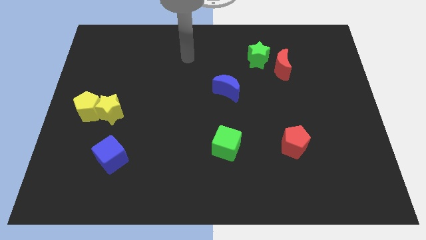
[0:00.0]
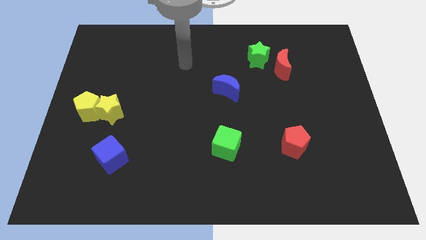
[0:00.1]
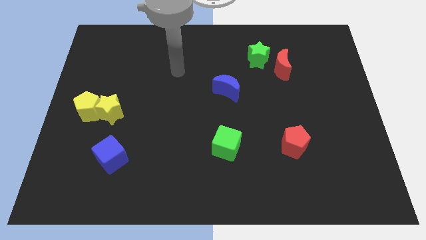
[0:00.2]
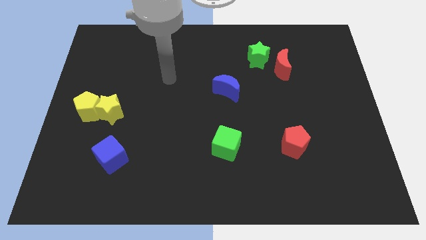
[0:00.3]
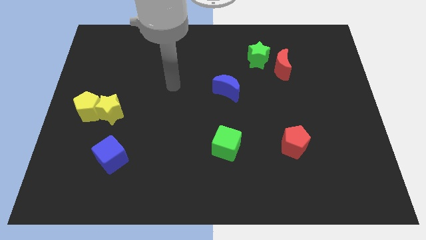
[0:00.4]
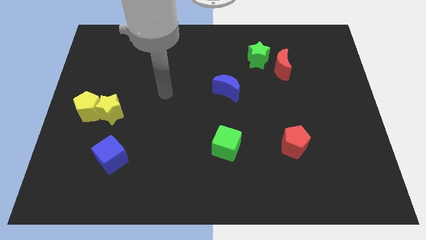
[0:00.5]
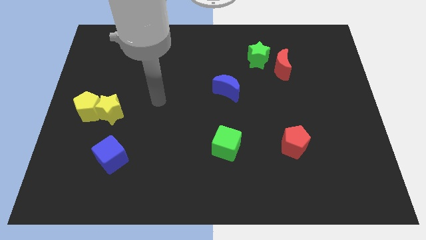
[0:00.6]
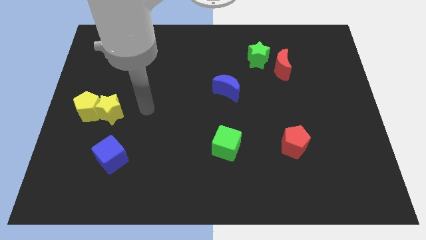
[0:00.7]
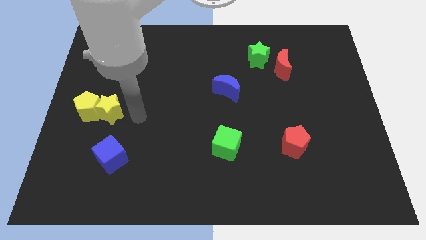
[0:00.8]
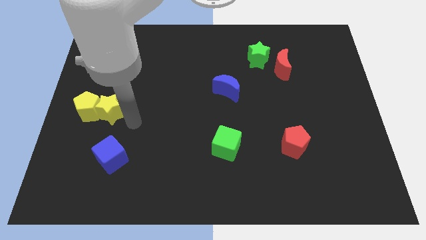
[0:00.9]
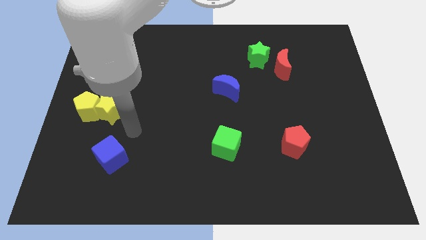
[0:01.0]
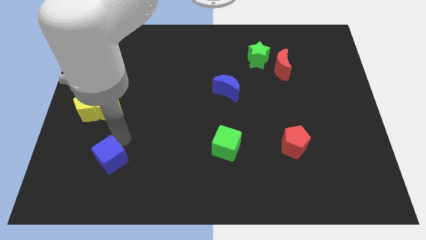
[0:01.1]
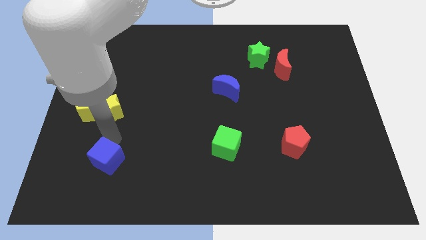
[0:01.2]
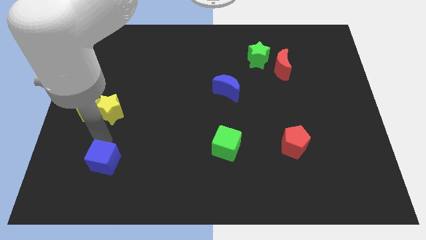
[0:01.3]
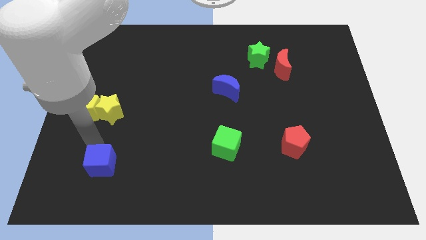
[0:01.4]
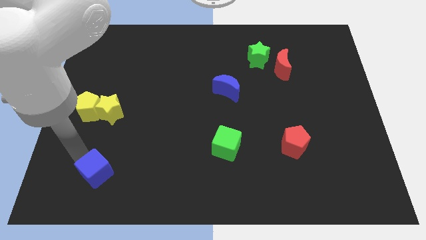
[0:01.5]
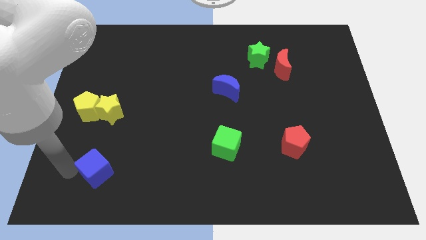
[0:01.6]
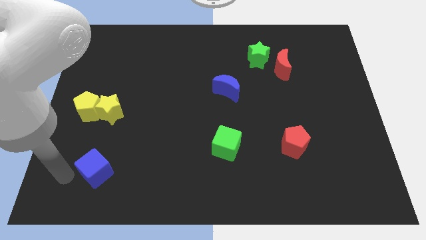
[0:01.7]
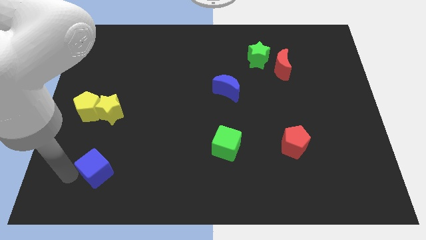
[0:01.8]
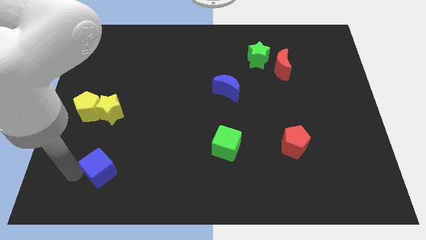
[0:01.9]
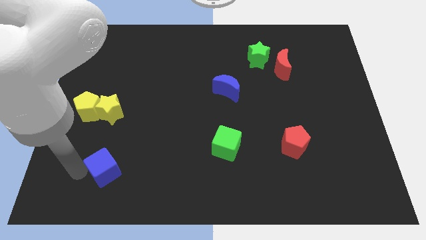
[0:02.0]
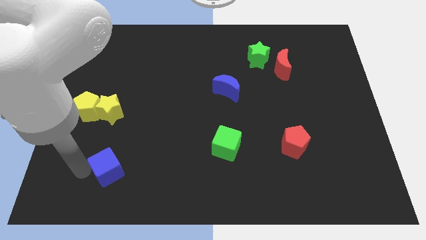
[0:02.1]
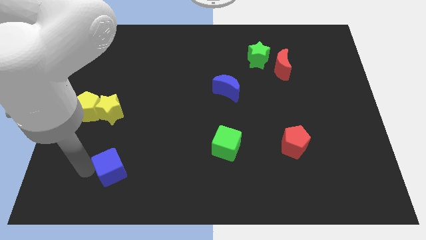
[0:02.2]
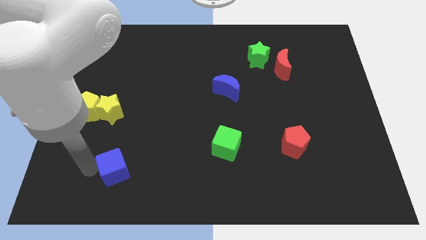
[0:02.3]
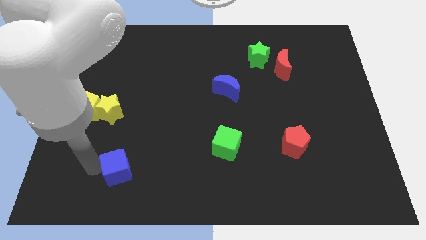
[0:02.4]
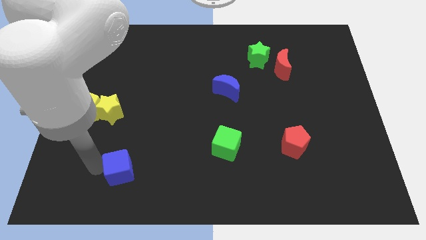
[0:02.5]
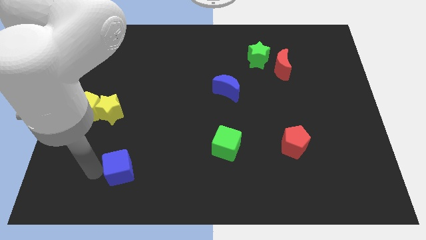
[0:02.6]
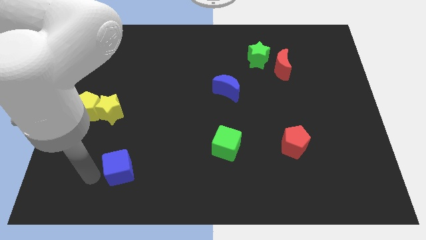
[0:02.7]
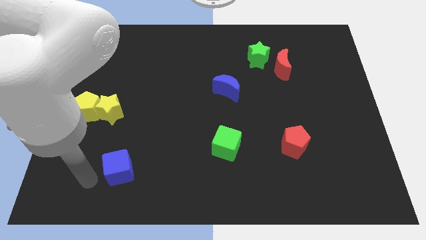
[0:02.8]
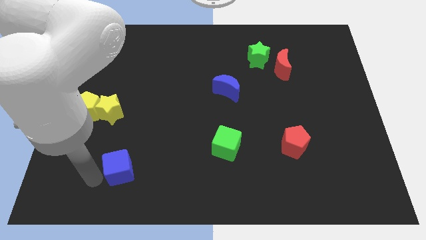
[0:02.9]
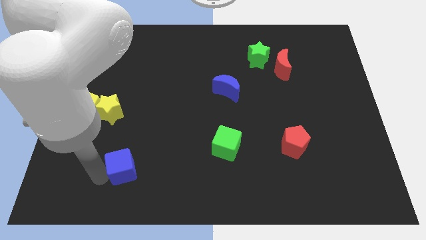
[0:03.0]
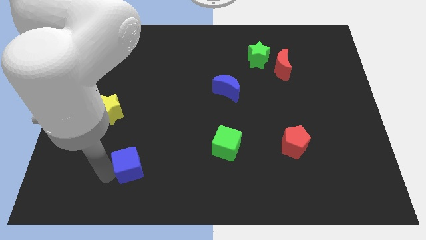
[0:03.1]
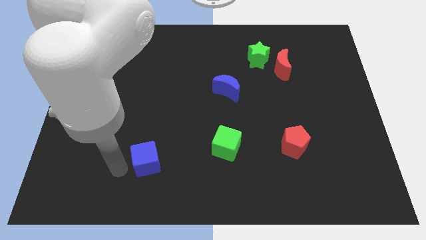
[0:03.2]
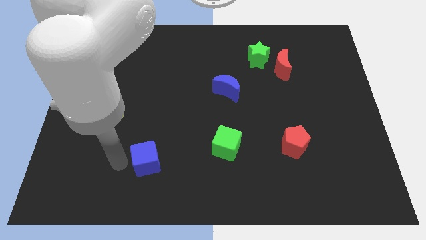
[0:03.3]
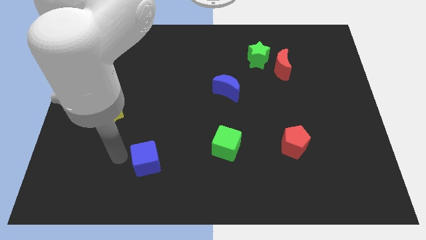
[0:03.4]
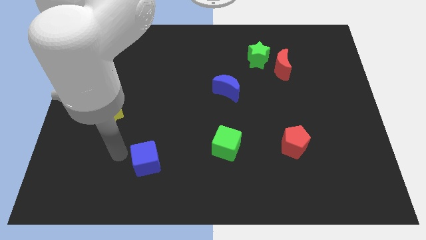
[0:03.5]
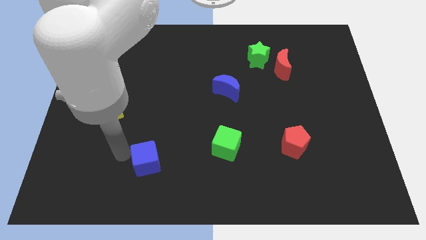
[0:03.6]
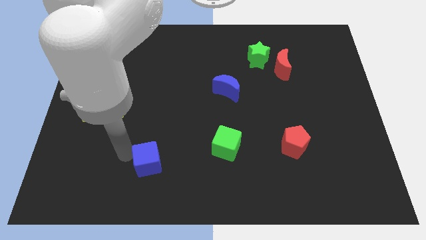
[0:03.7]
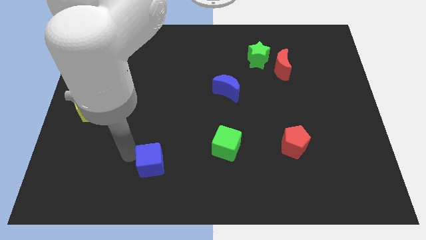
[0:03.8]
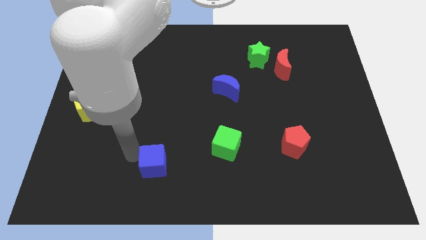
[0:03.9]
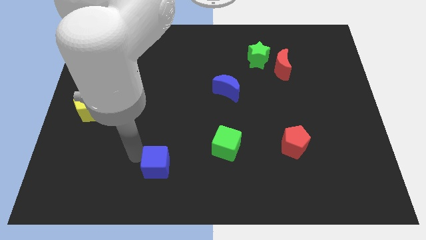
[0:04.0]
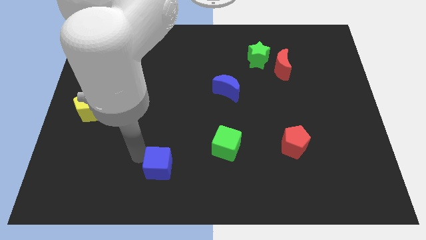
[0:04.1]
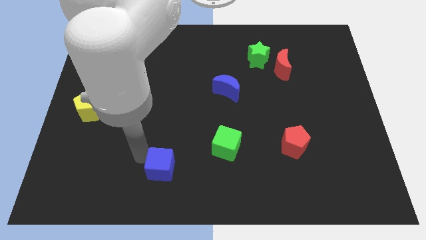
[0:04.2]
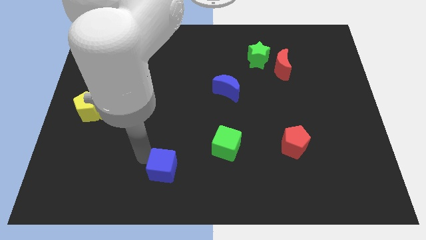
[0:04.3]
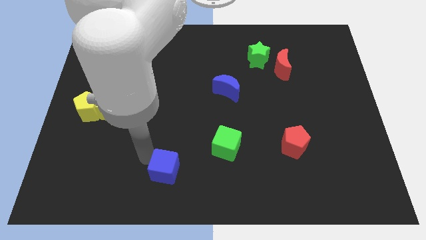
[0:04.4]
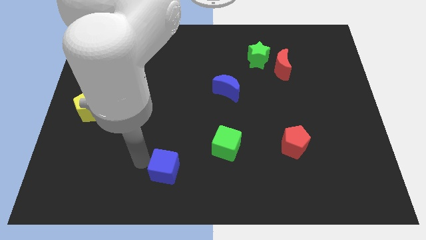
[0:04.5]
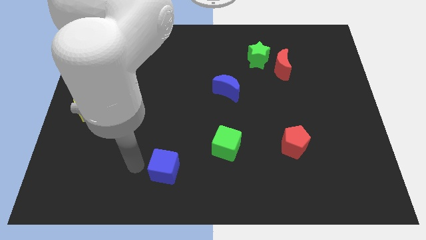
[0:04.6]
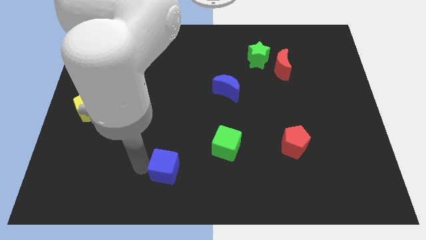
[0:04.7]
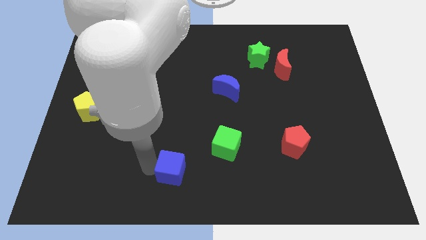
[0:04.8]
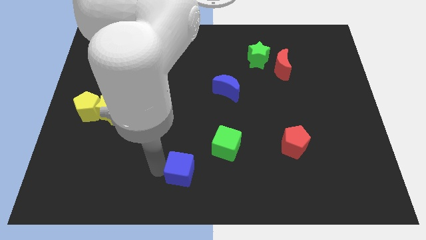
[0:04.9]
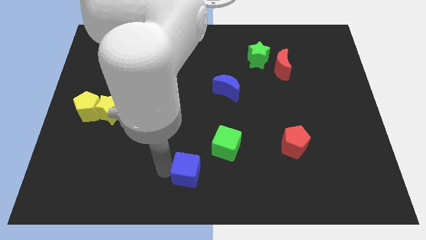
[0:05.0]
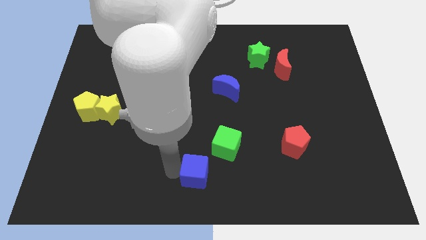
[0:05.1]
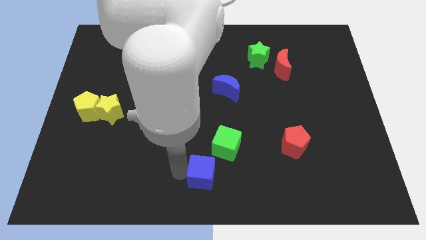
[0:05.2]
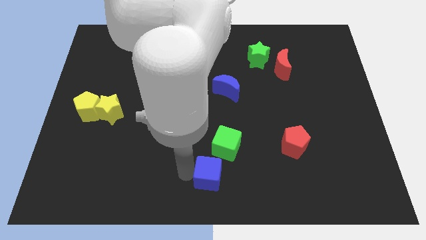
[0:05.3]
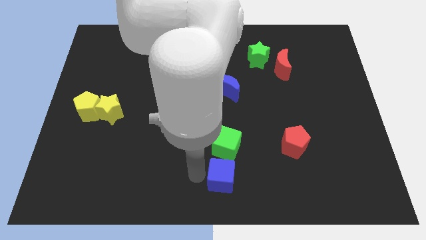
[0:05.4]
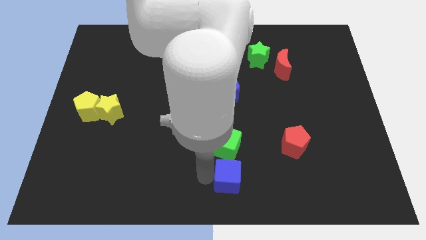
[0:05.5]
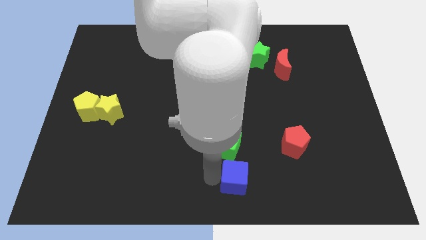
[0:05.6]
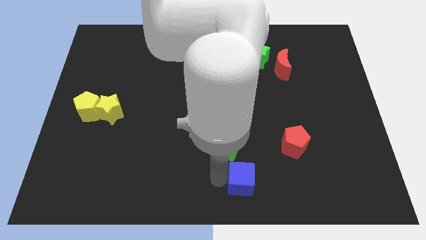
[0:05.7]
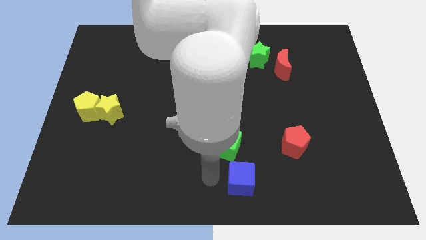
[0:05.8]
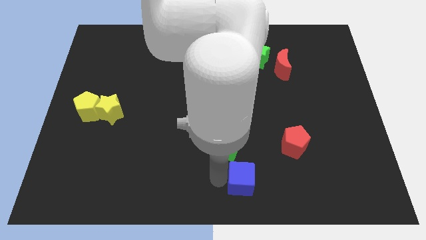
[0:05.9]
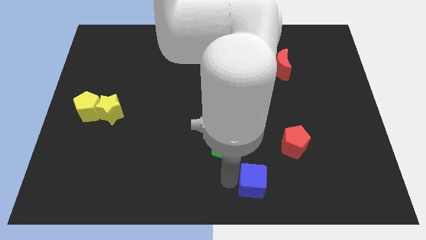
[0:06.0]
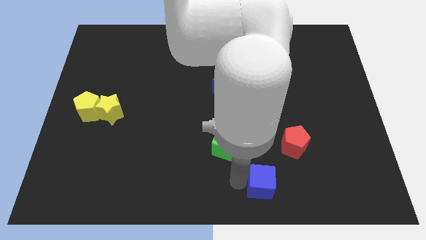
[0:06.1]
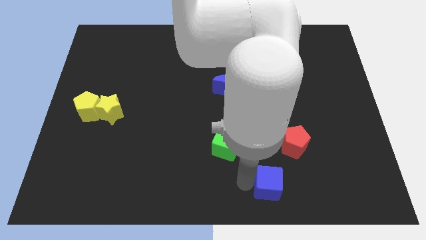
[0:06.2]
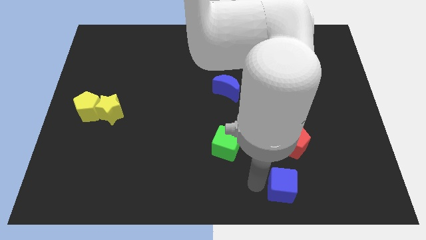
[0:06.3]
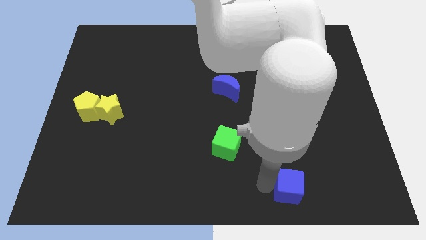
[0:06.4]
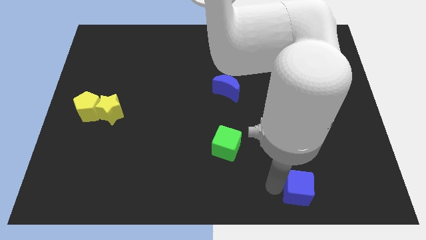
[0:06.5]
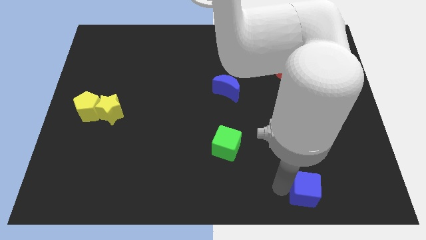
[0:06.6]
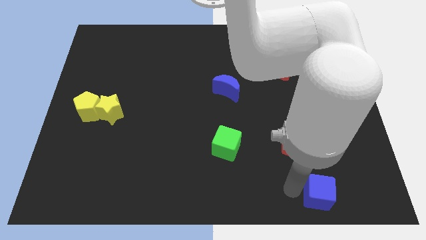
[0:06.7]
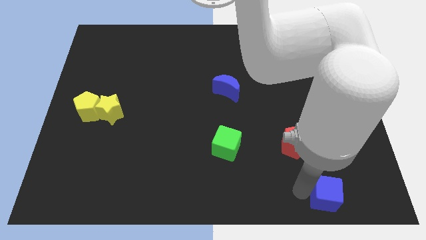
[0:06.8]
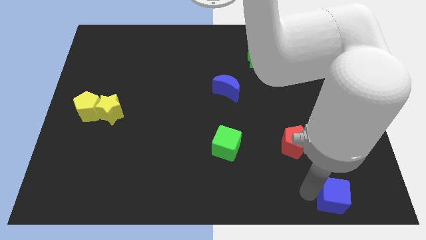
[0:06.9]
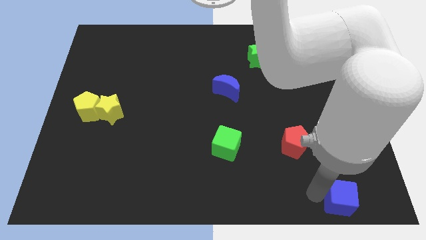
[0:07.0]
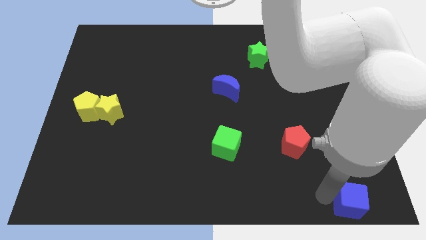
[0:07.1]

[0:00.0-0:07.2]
push the blue cube to the bottom right corner
